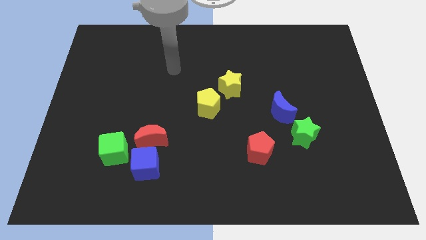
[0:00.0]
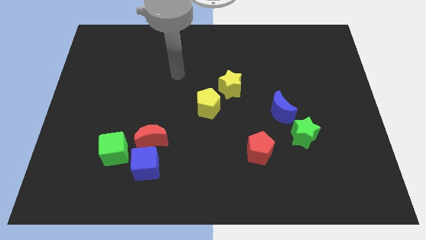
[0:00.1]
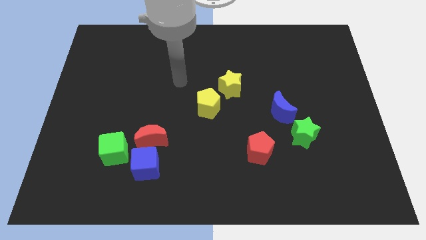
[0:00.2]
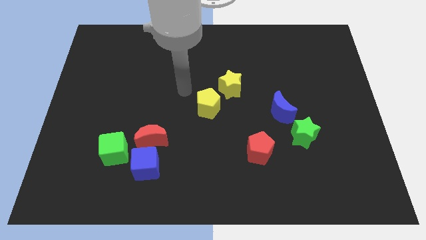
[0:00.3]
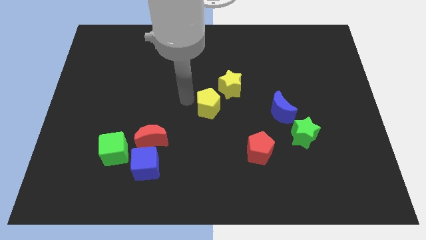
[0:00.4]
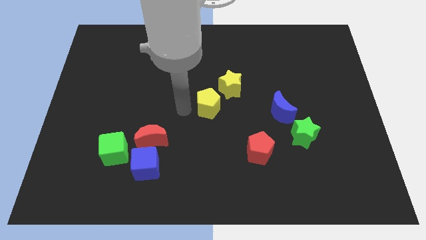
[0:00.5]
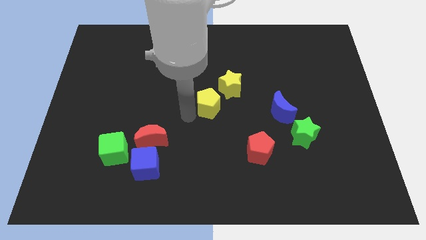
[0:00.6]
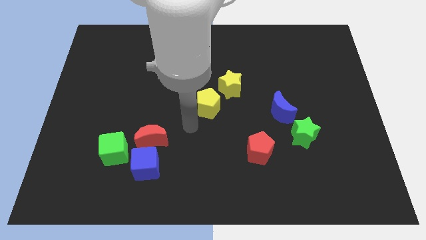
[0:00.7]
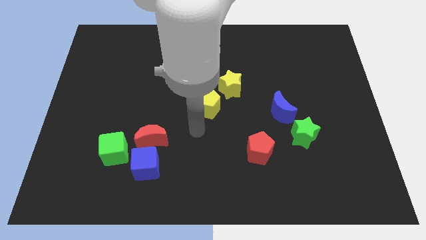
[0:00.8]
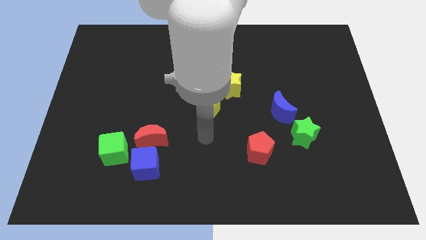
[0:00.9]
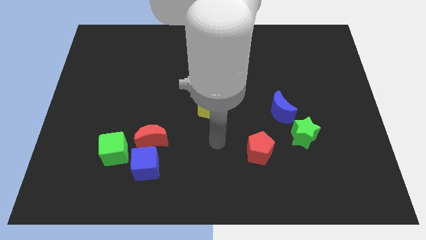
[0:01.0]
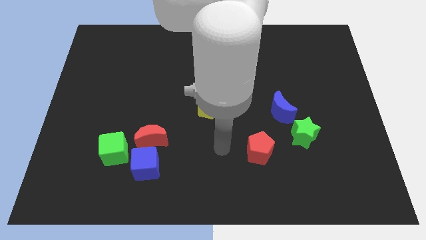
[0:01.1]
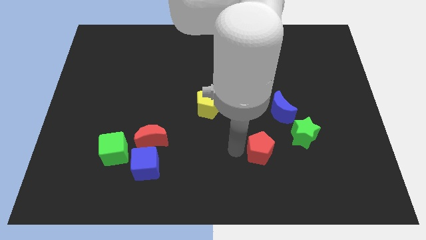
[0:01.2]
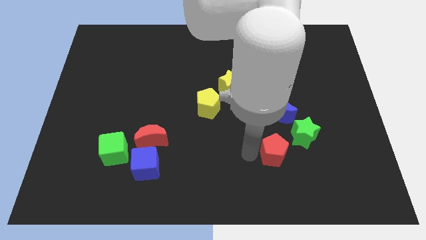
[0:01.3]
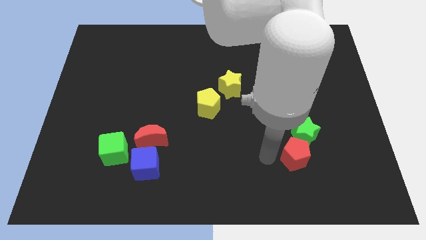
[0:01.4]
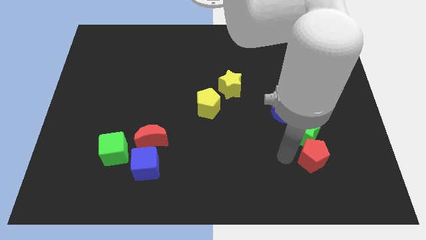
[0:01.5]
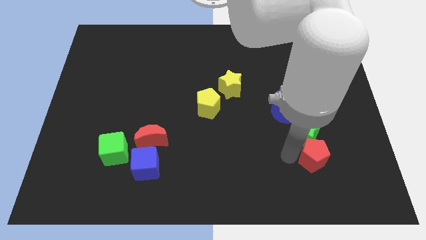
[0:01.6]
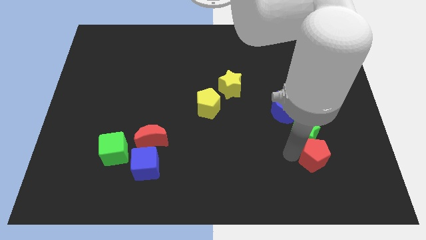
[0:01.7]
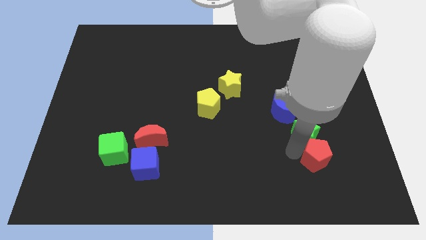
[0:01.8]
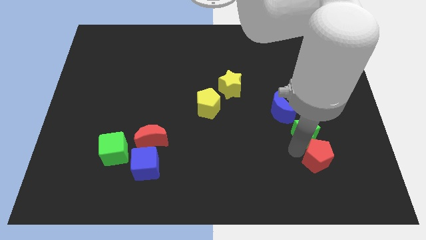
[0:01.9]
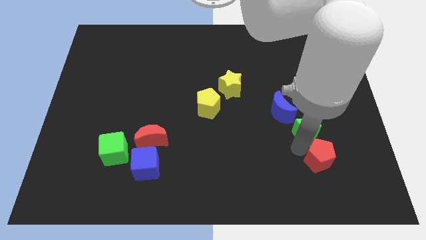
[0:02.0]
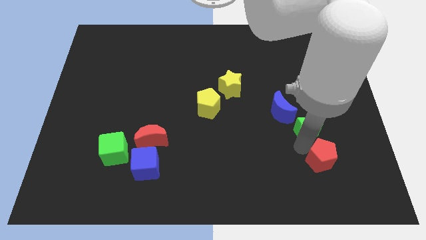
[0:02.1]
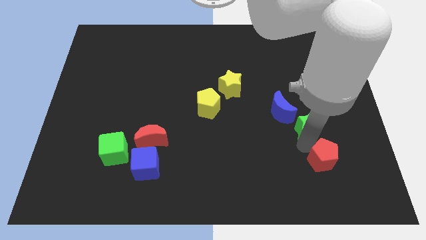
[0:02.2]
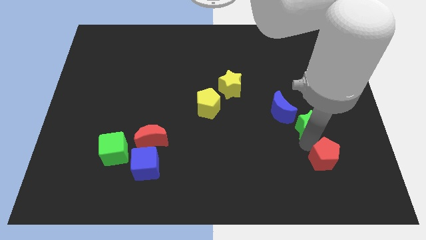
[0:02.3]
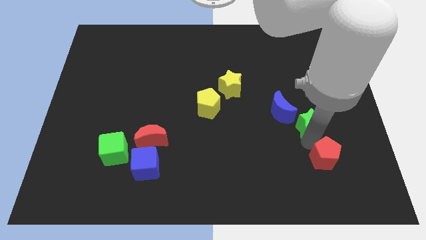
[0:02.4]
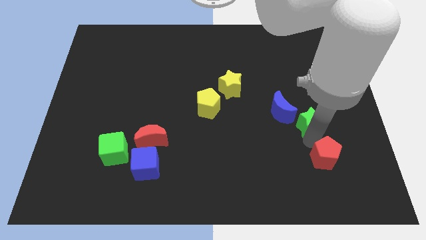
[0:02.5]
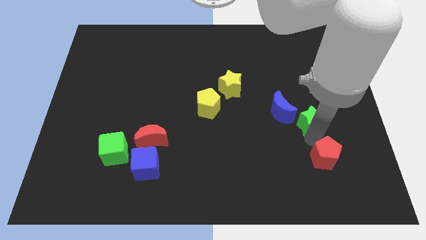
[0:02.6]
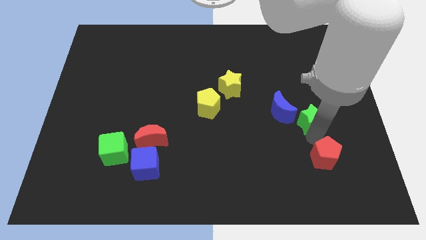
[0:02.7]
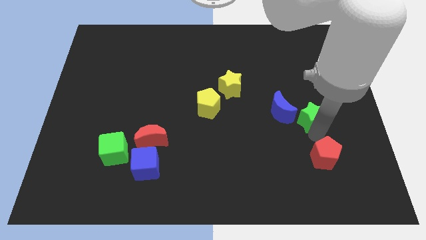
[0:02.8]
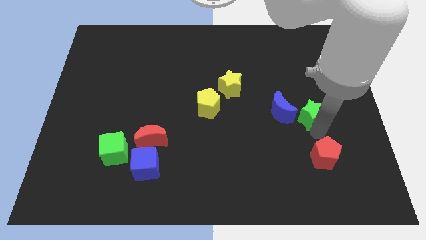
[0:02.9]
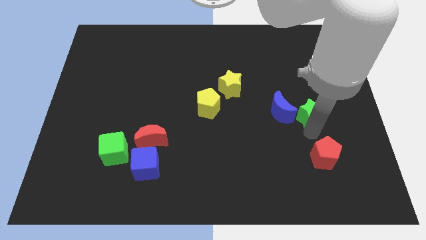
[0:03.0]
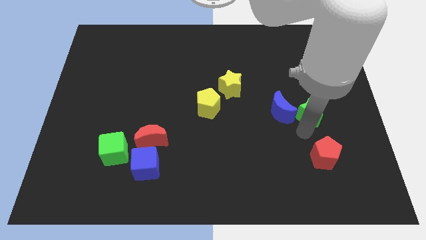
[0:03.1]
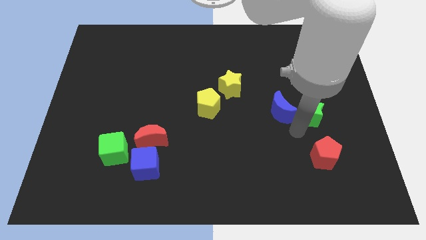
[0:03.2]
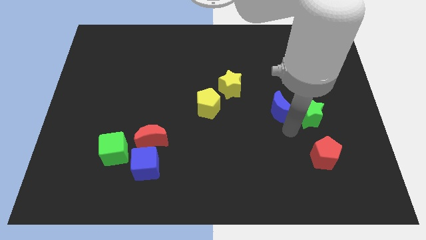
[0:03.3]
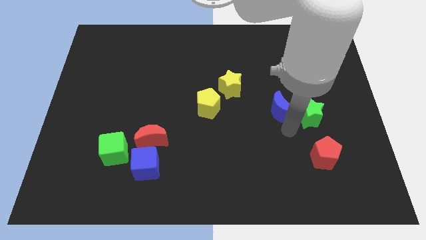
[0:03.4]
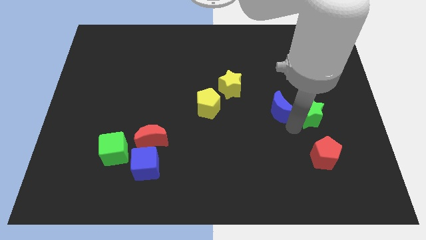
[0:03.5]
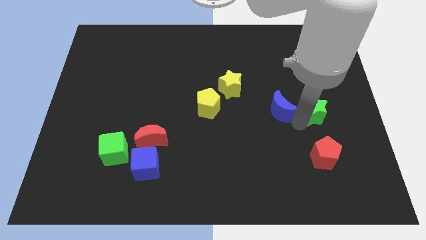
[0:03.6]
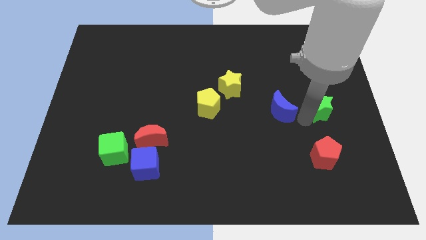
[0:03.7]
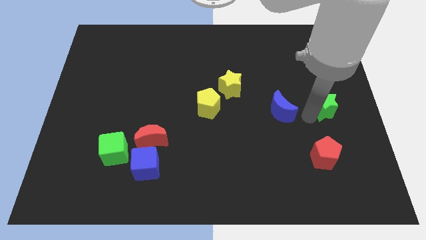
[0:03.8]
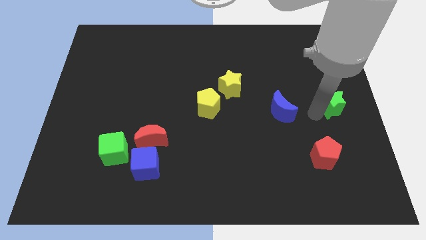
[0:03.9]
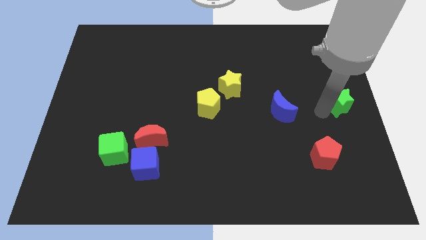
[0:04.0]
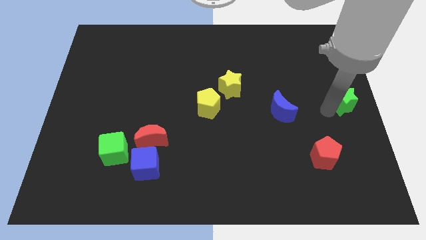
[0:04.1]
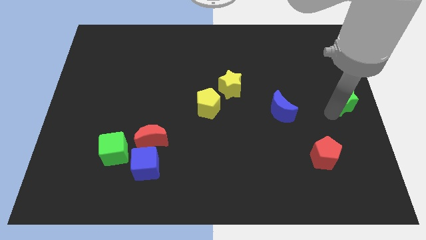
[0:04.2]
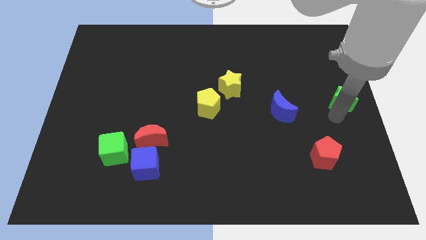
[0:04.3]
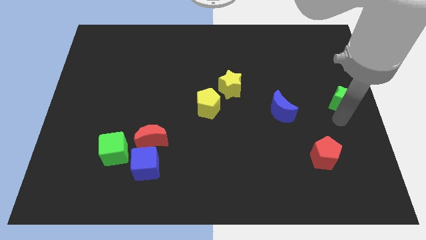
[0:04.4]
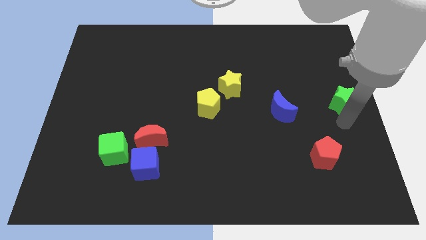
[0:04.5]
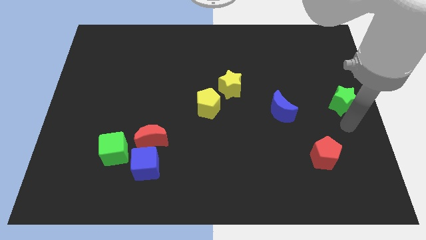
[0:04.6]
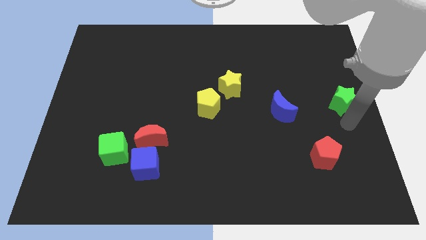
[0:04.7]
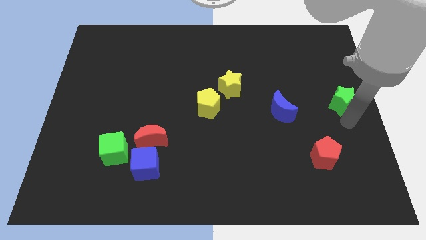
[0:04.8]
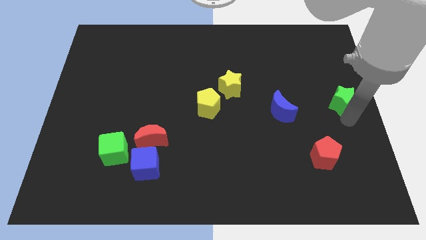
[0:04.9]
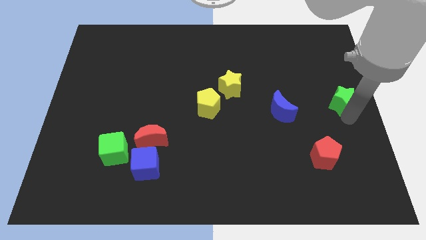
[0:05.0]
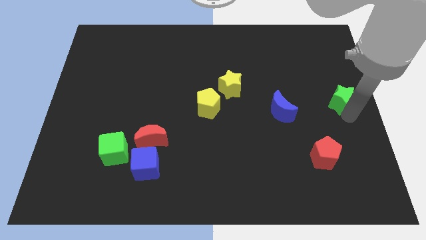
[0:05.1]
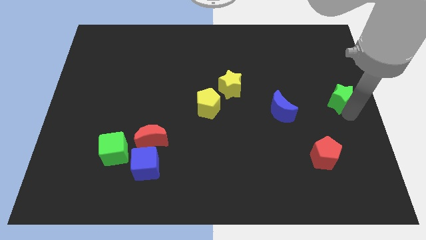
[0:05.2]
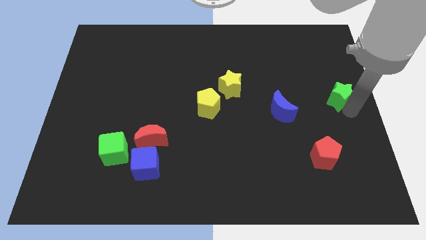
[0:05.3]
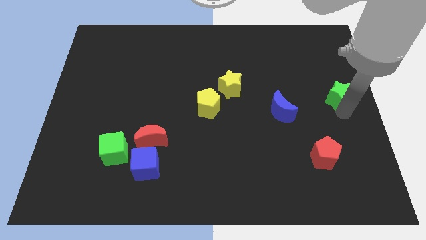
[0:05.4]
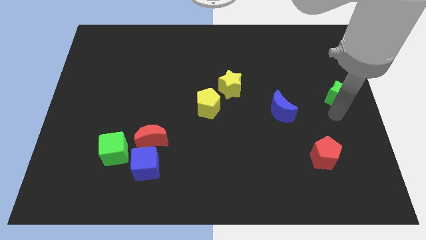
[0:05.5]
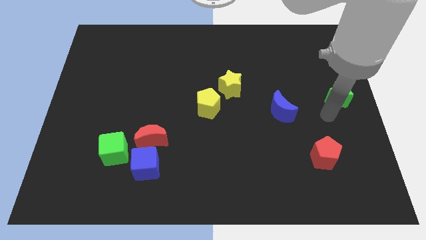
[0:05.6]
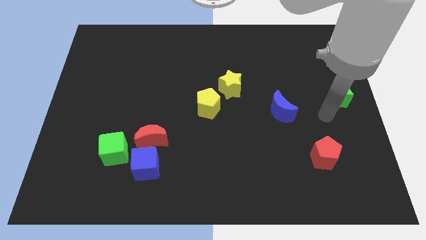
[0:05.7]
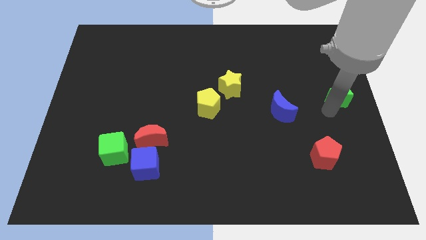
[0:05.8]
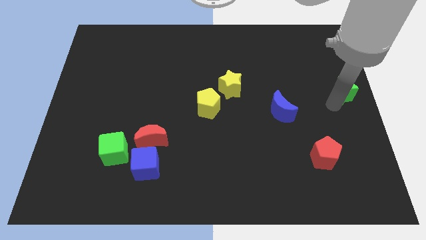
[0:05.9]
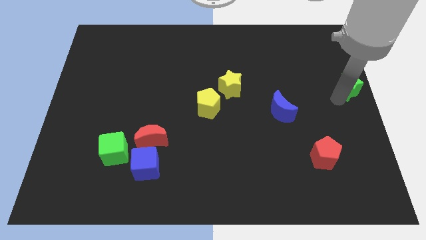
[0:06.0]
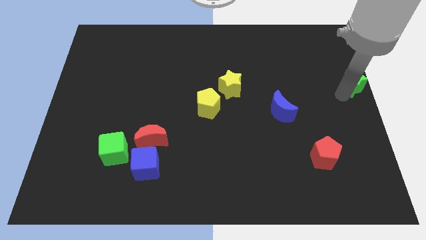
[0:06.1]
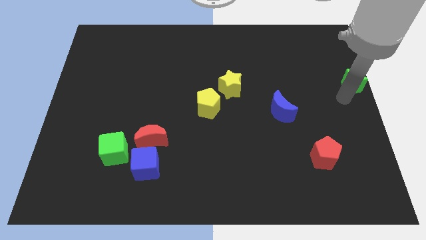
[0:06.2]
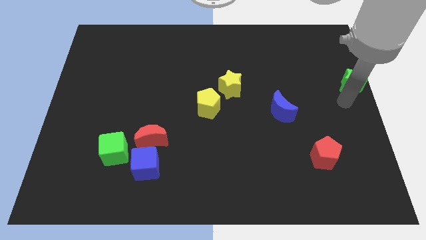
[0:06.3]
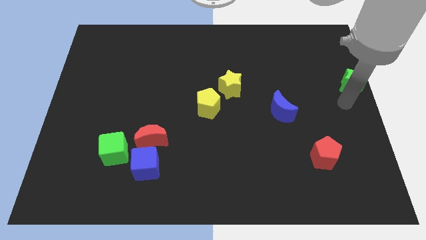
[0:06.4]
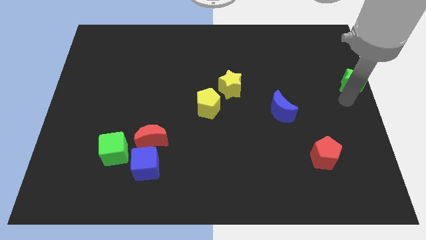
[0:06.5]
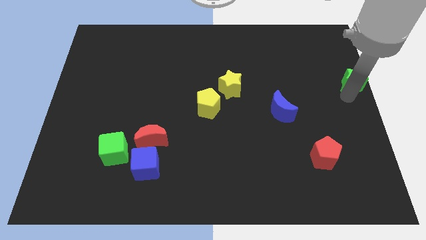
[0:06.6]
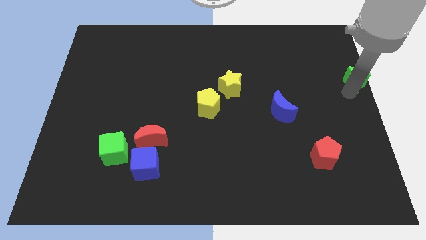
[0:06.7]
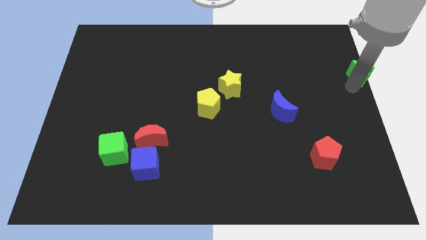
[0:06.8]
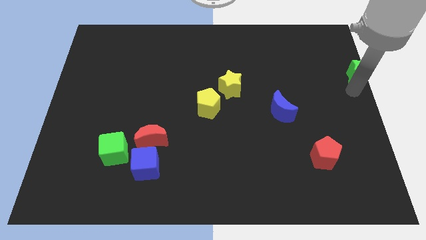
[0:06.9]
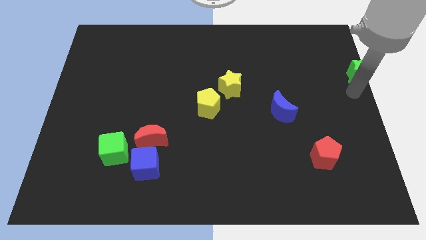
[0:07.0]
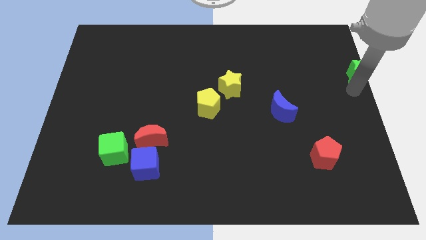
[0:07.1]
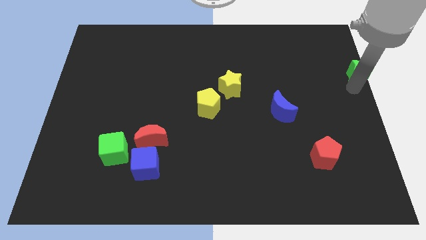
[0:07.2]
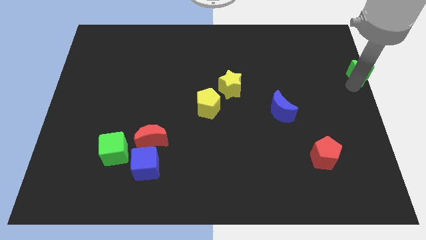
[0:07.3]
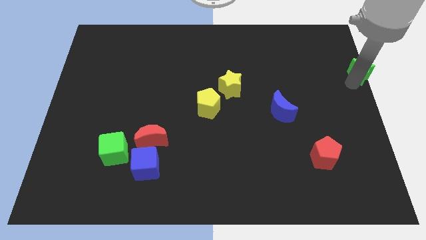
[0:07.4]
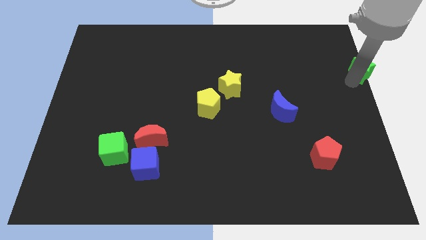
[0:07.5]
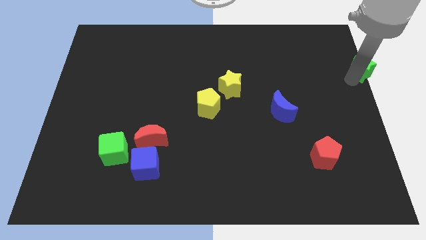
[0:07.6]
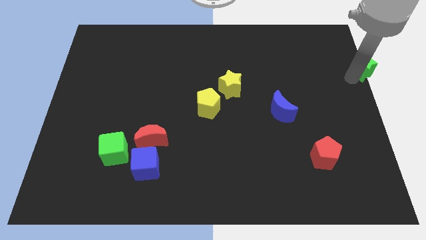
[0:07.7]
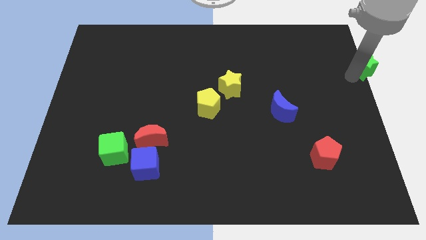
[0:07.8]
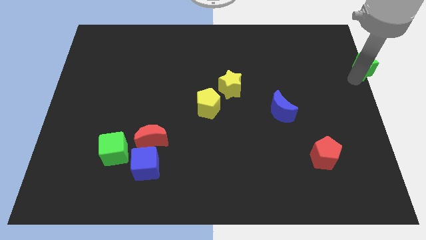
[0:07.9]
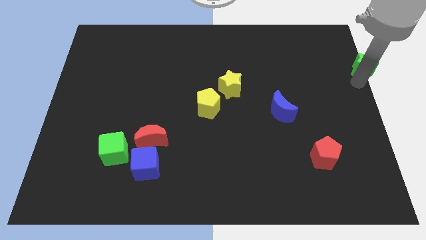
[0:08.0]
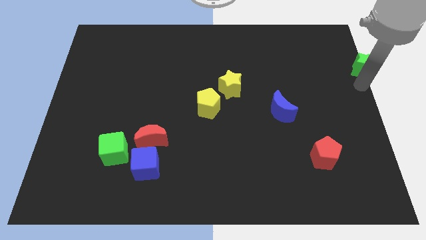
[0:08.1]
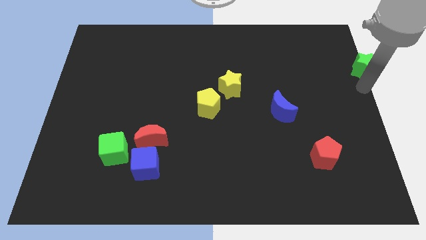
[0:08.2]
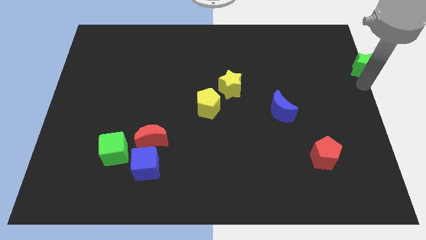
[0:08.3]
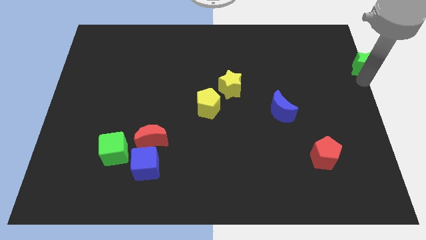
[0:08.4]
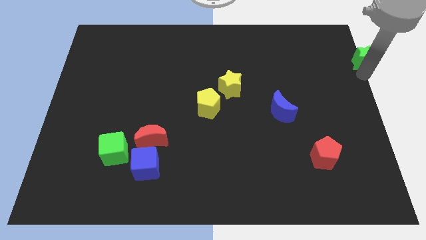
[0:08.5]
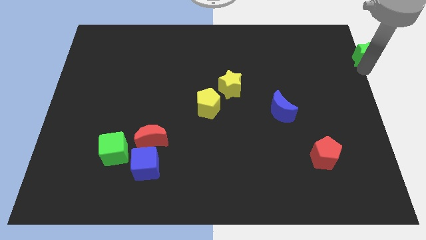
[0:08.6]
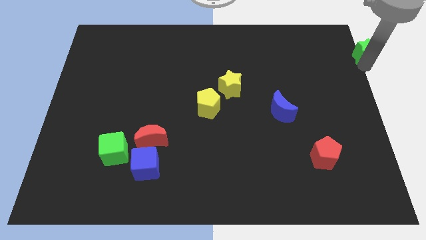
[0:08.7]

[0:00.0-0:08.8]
push the green star to the upper right corner
